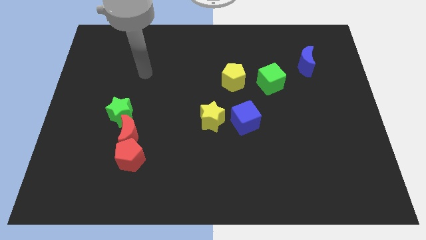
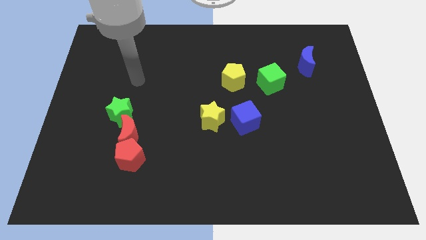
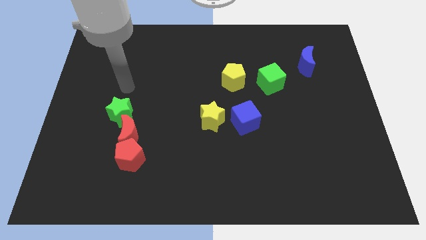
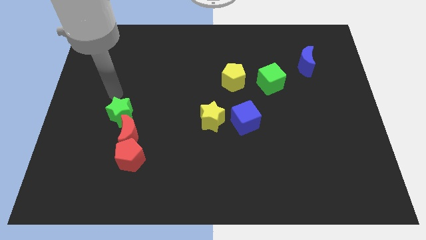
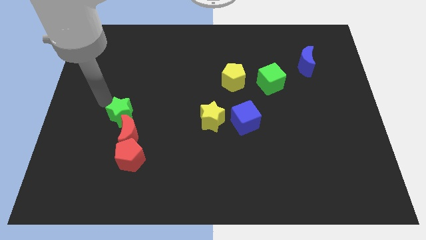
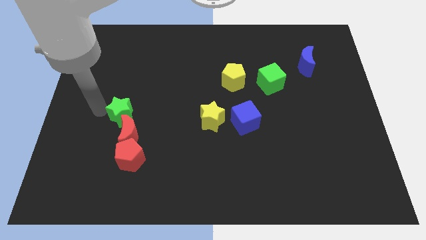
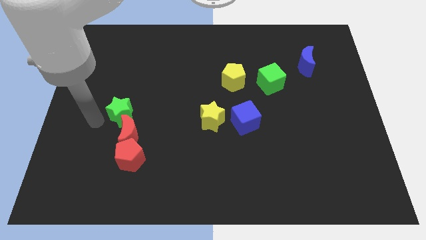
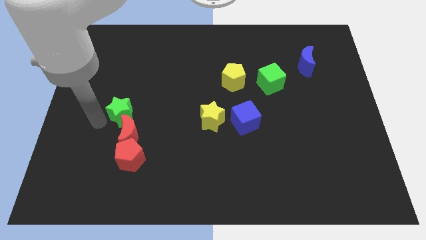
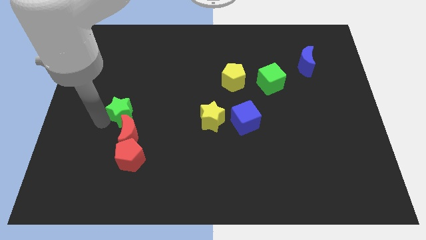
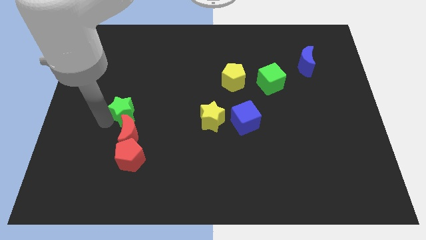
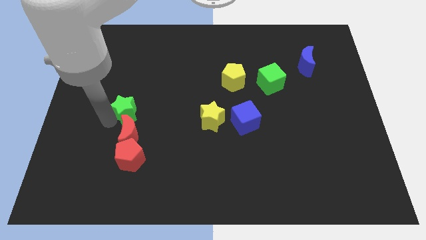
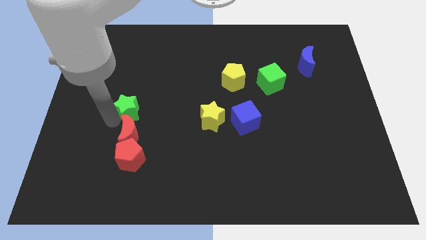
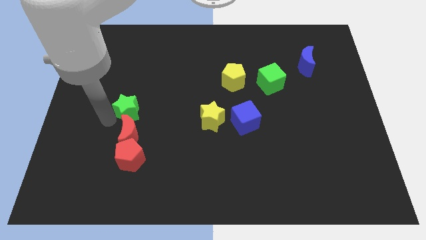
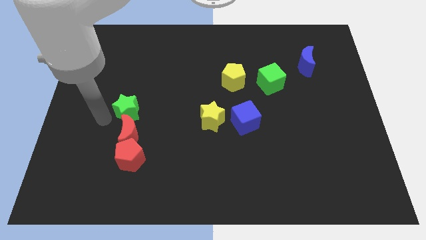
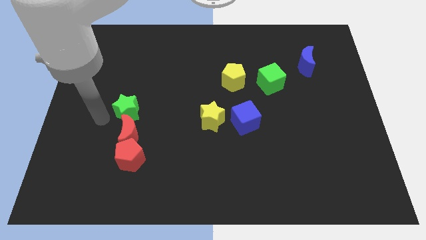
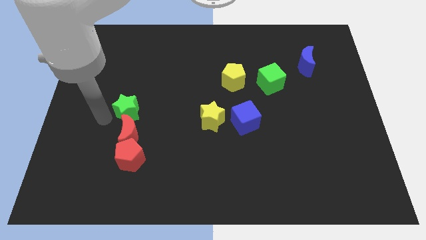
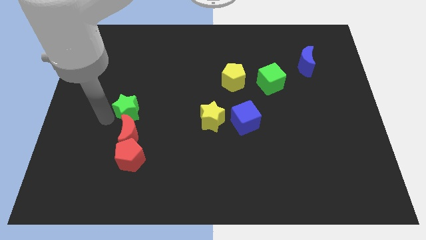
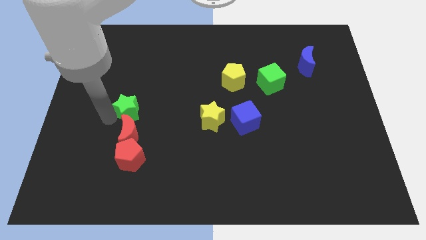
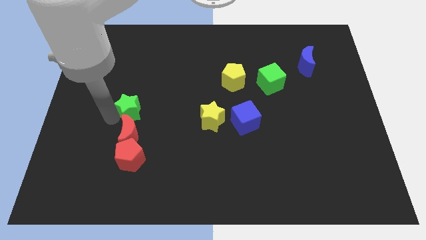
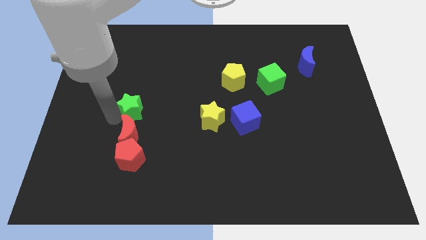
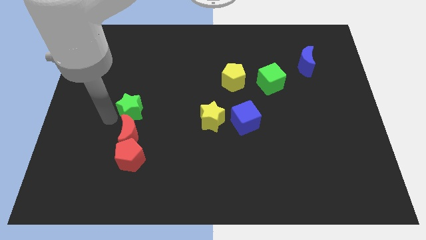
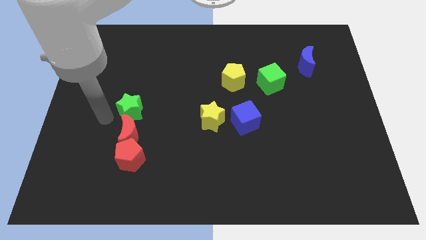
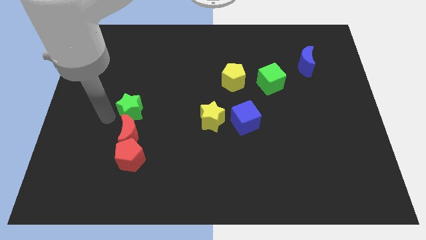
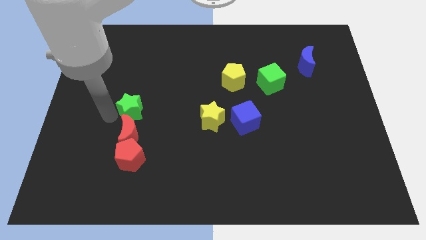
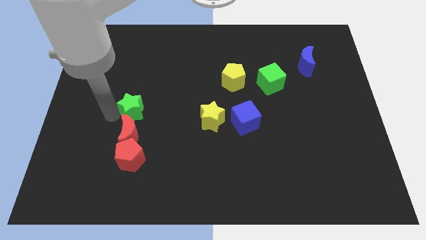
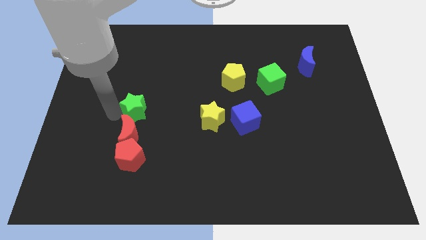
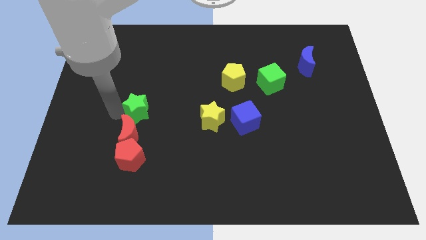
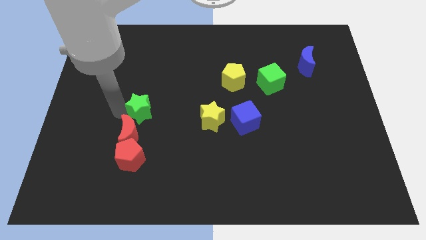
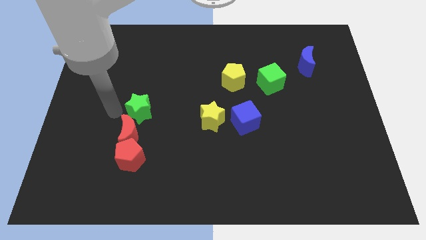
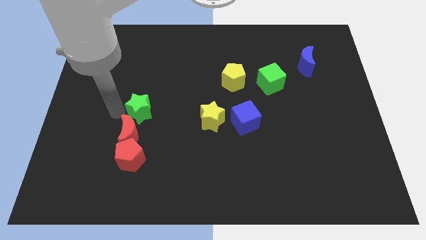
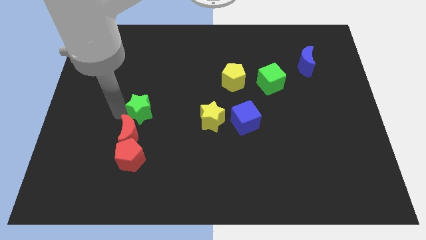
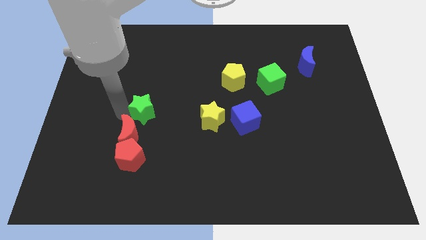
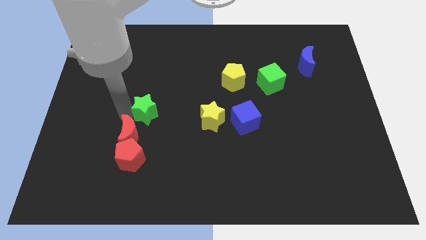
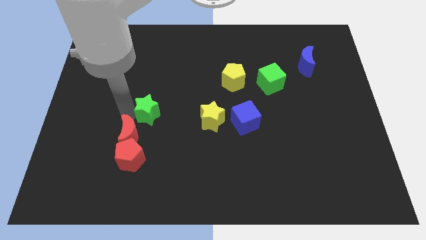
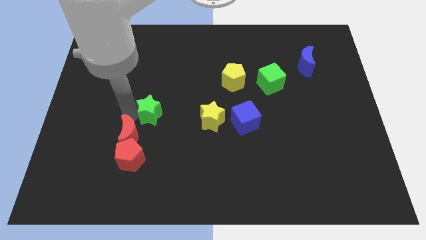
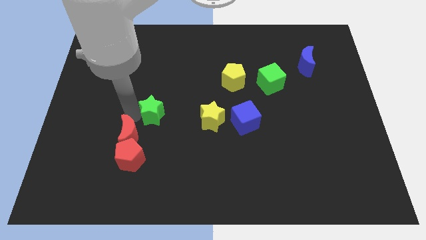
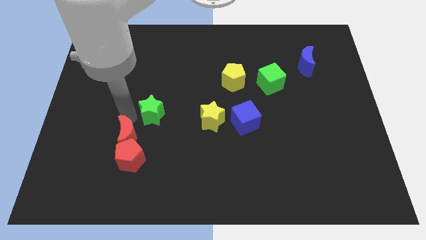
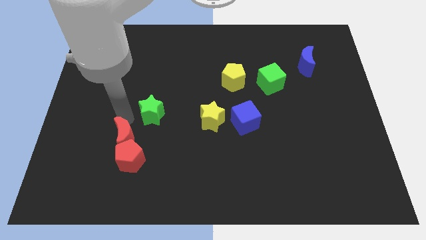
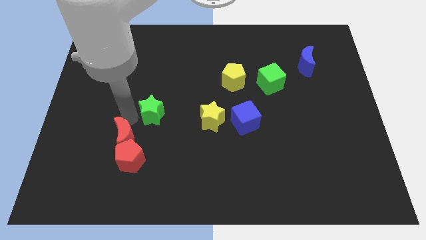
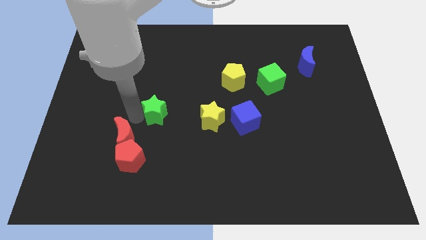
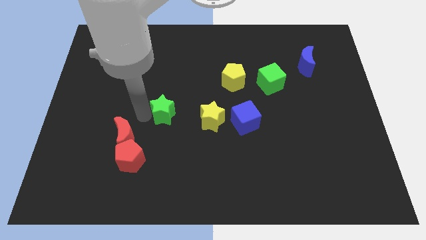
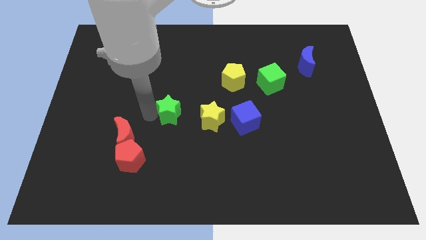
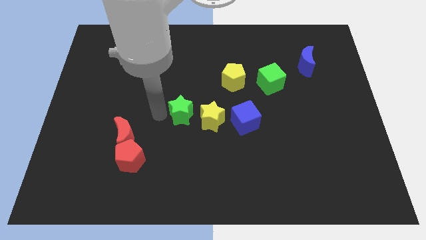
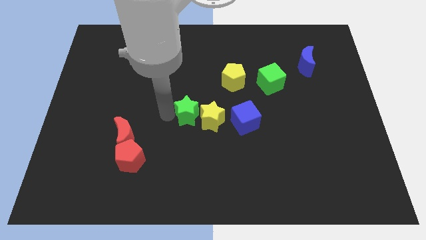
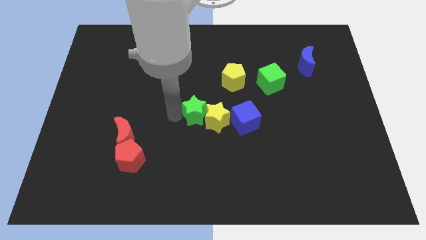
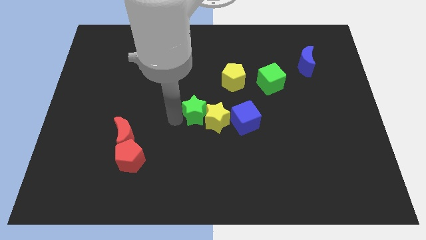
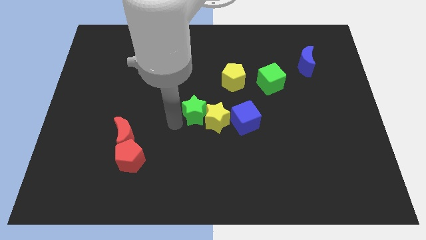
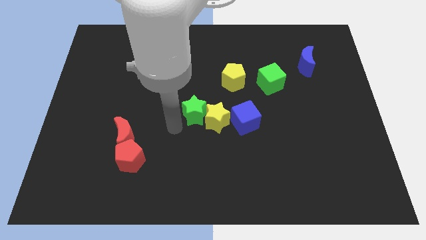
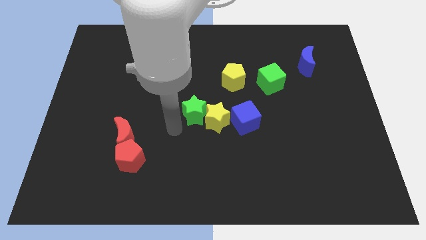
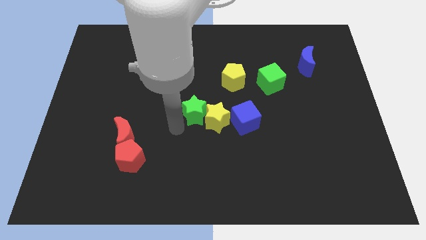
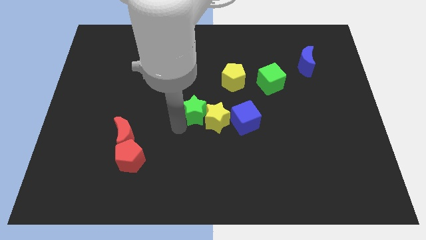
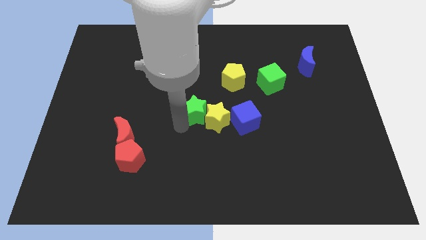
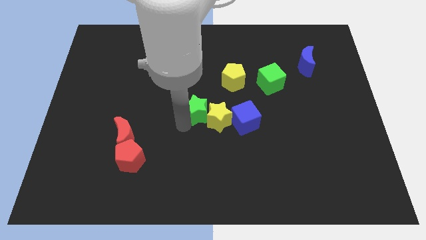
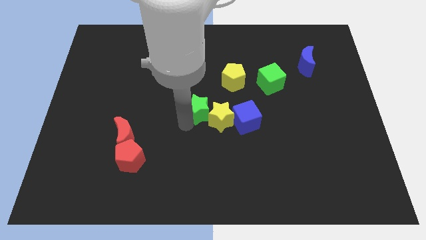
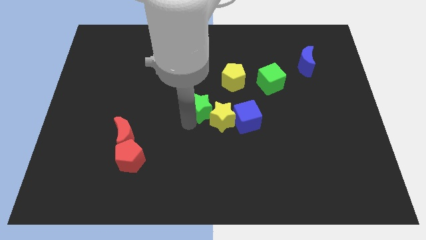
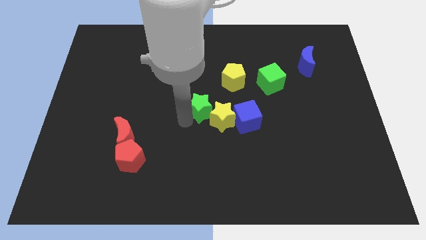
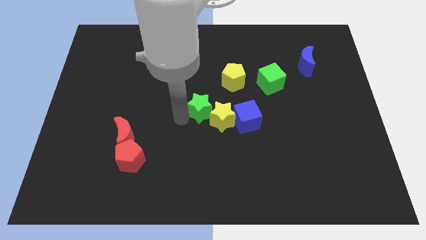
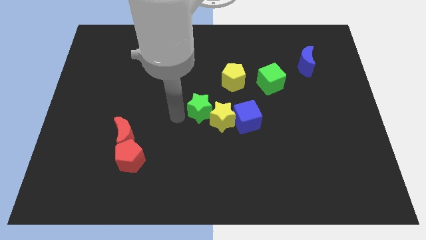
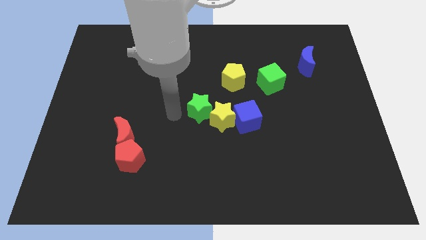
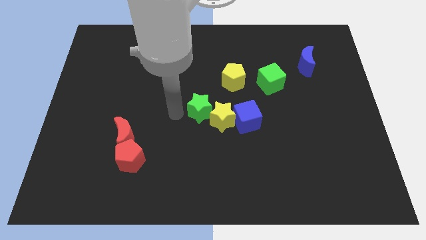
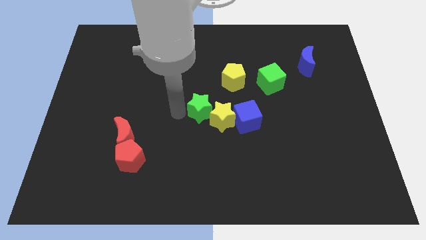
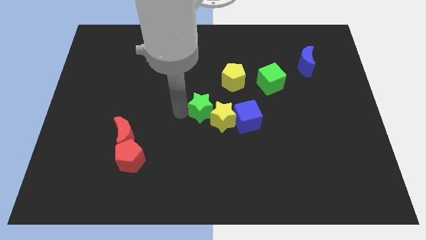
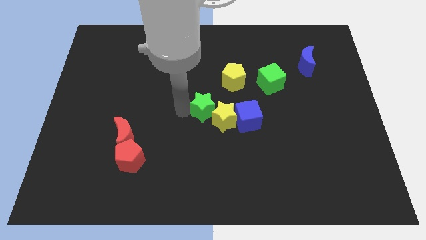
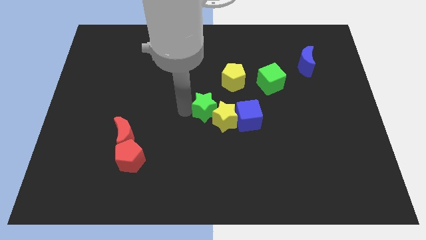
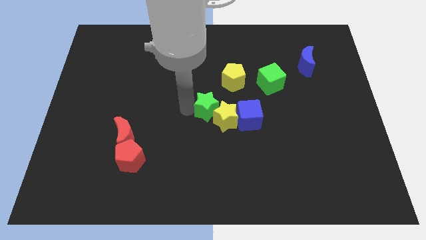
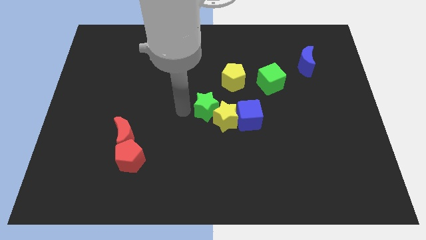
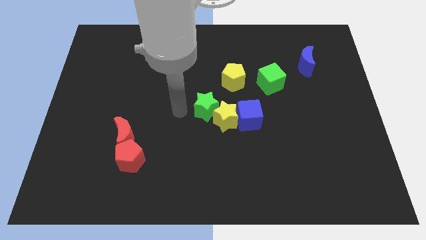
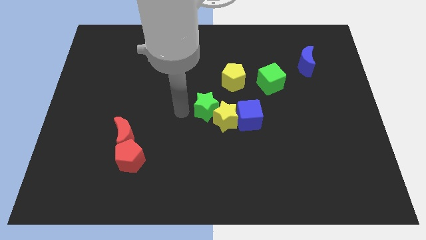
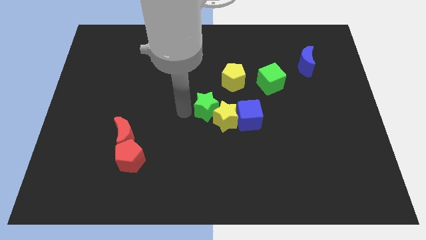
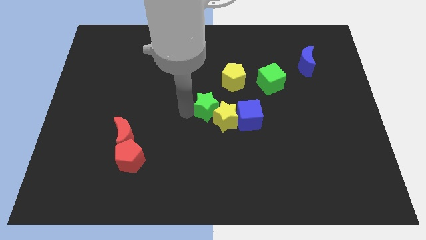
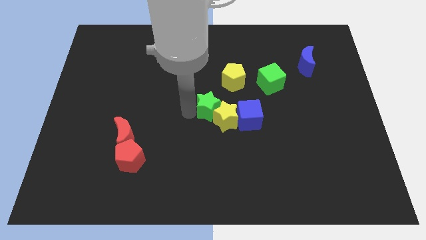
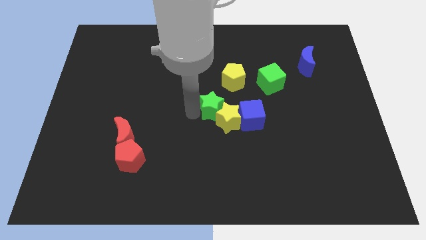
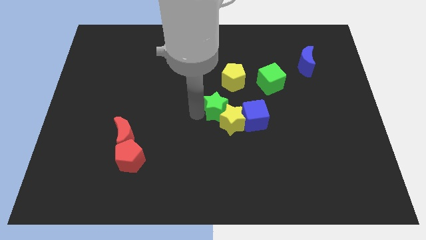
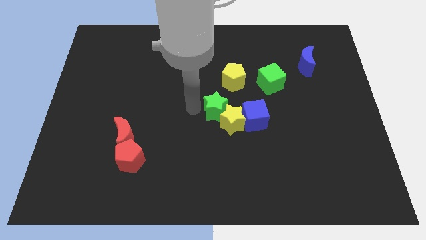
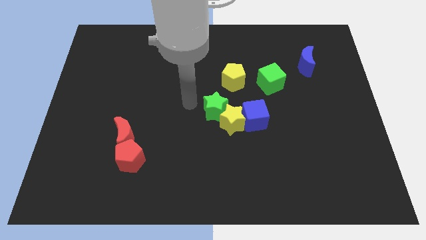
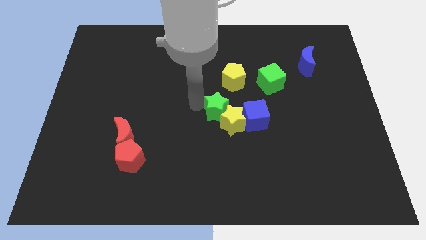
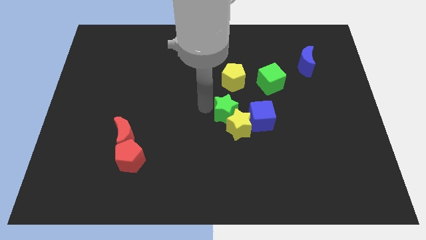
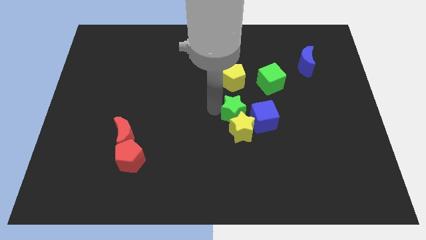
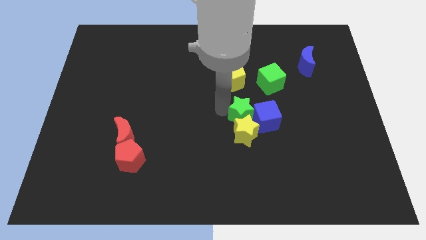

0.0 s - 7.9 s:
move the green star towards the blue cube
